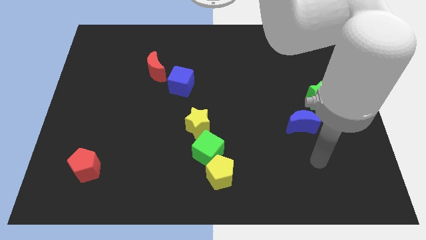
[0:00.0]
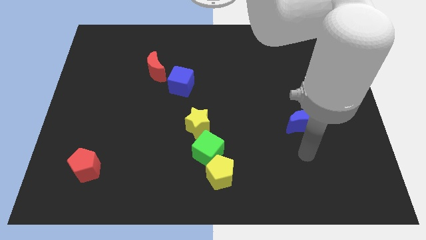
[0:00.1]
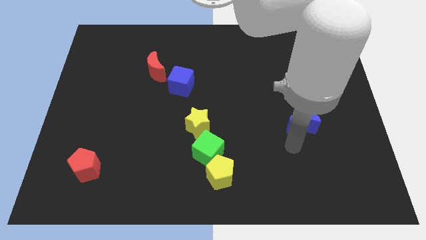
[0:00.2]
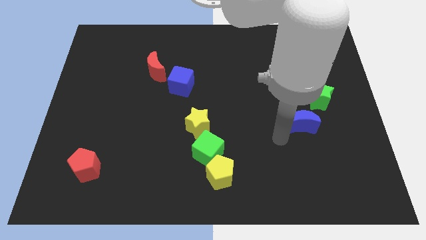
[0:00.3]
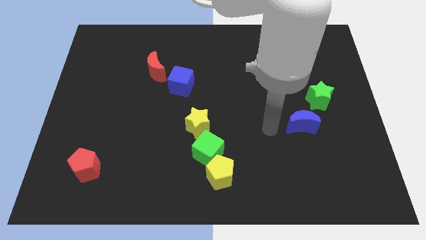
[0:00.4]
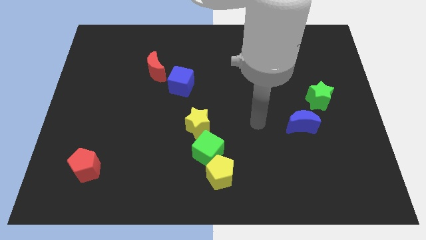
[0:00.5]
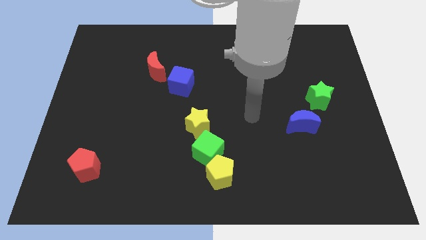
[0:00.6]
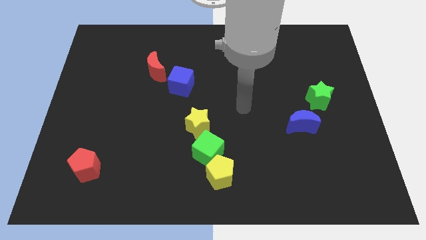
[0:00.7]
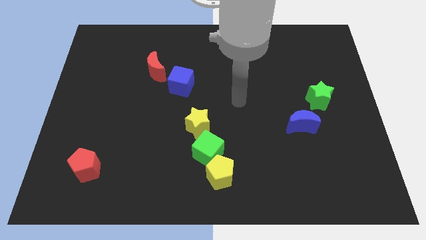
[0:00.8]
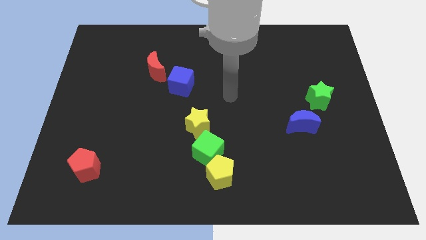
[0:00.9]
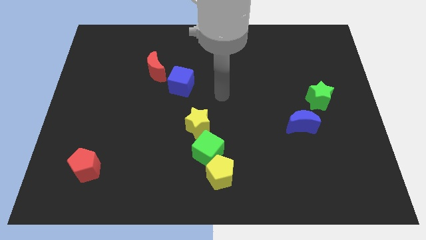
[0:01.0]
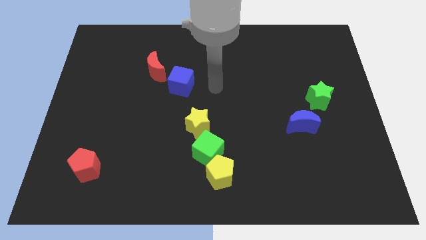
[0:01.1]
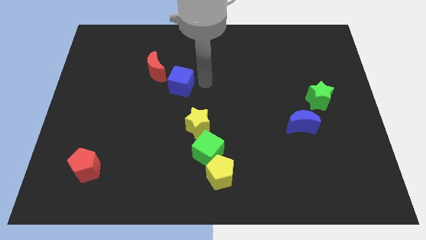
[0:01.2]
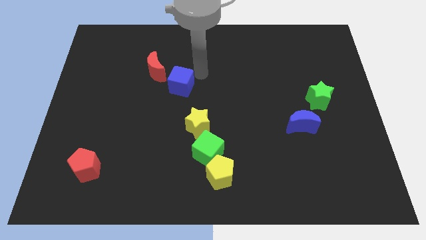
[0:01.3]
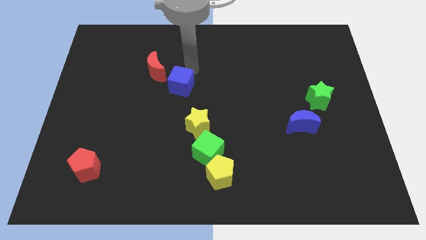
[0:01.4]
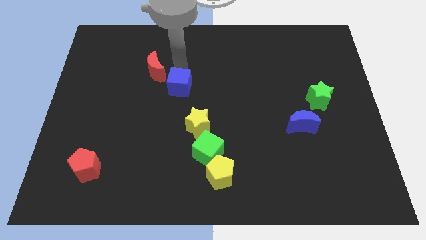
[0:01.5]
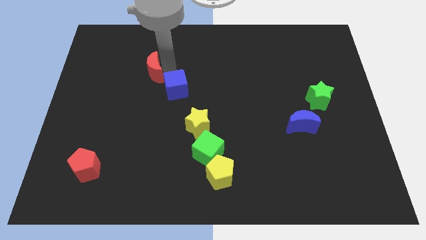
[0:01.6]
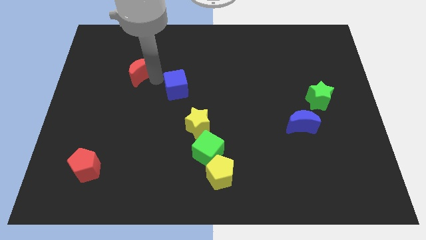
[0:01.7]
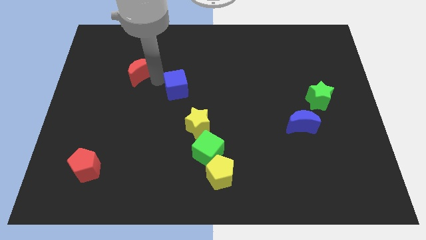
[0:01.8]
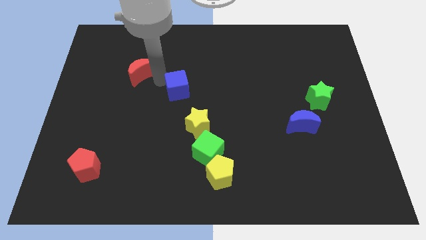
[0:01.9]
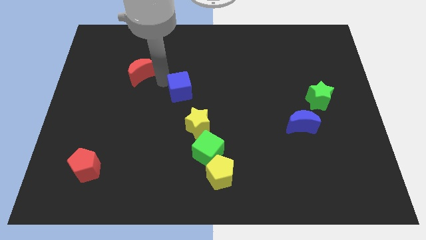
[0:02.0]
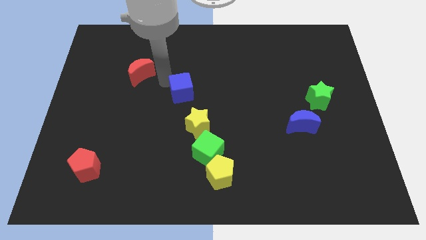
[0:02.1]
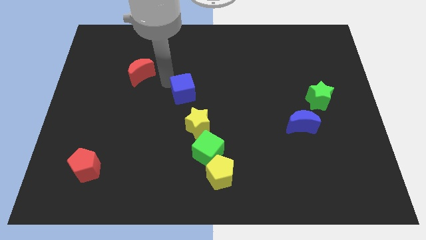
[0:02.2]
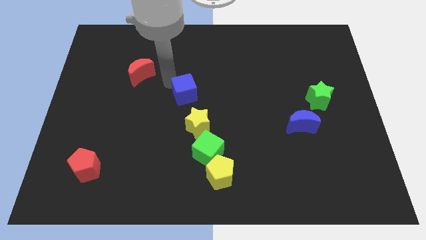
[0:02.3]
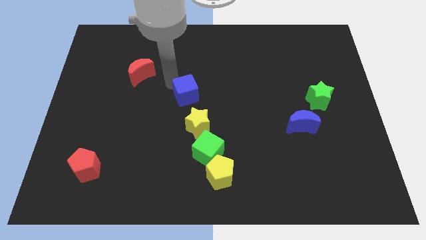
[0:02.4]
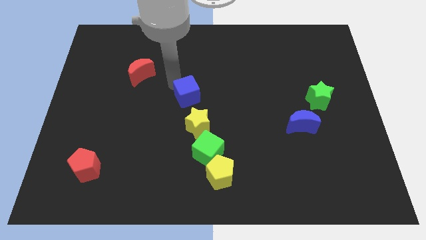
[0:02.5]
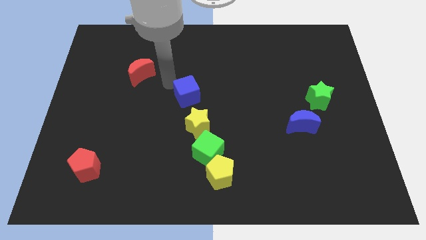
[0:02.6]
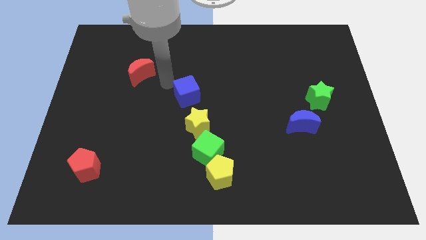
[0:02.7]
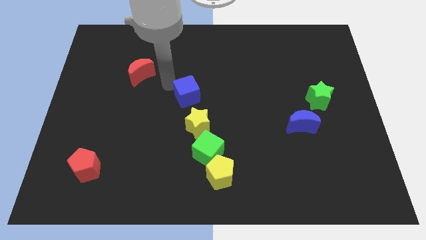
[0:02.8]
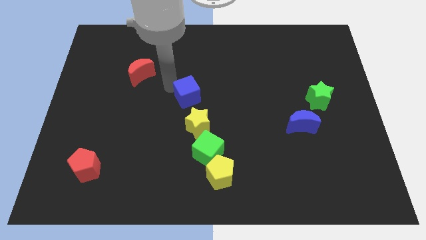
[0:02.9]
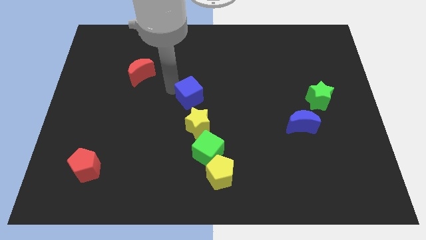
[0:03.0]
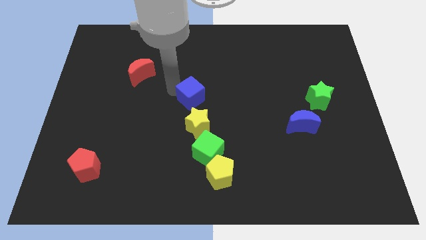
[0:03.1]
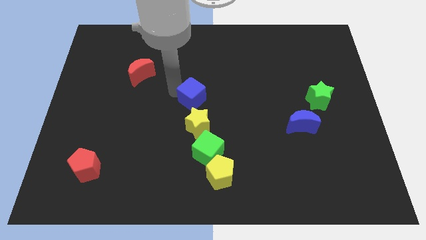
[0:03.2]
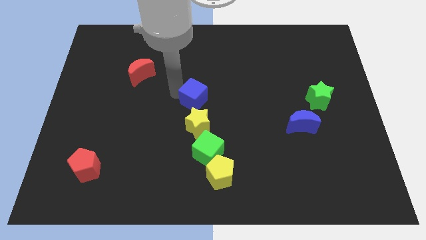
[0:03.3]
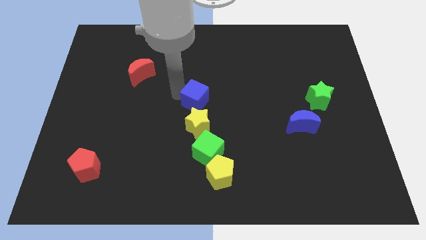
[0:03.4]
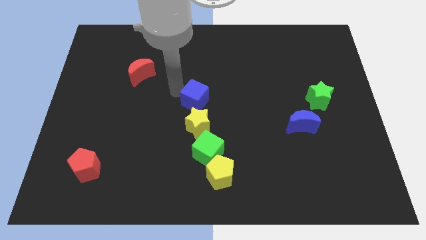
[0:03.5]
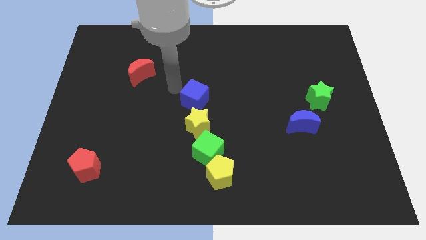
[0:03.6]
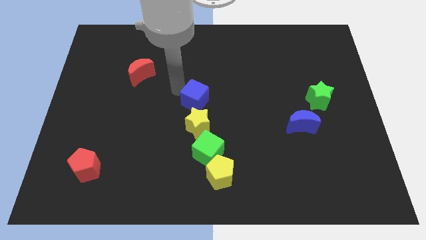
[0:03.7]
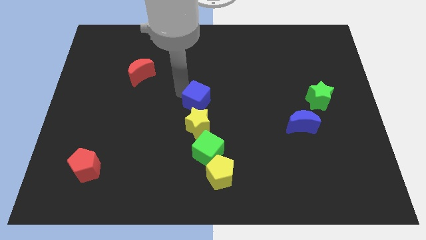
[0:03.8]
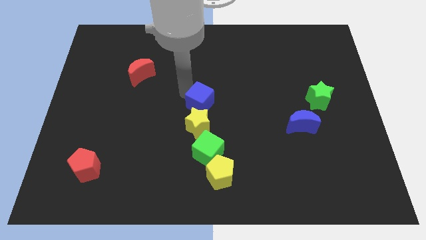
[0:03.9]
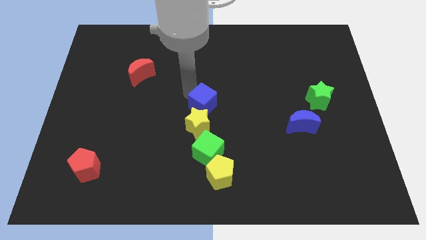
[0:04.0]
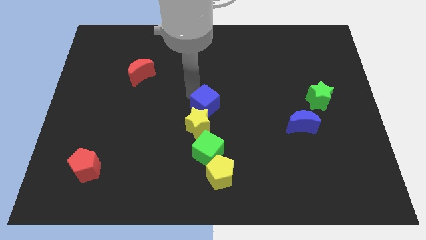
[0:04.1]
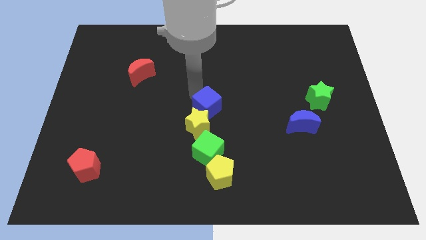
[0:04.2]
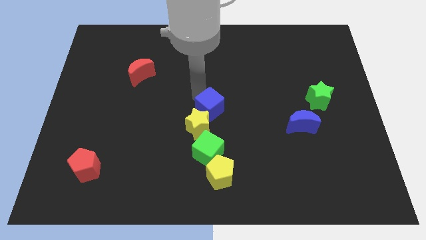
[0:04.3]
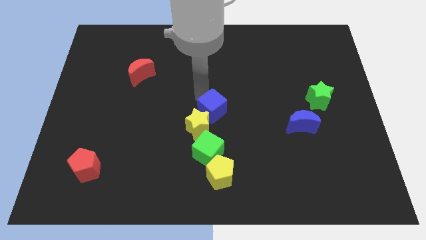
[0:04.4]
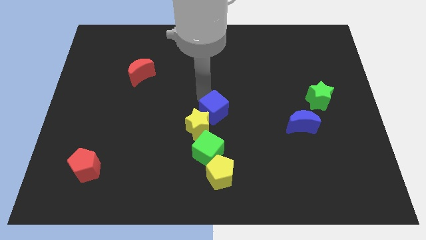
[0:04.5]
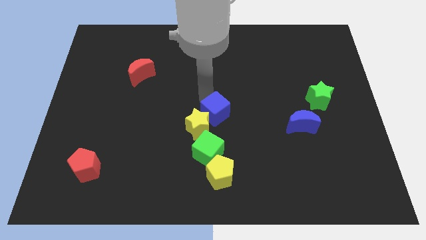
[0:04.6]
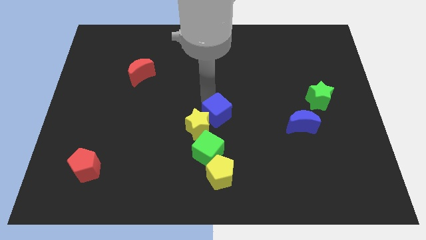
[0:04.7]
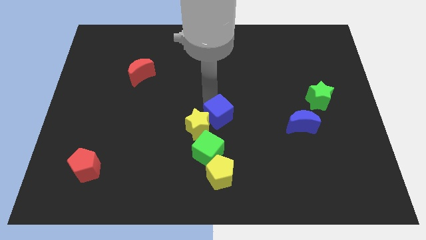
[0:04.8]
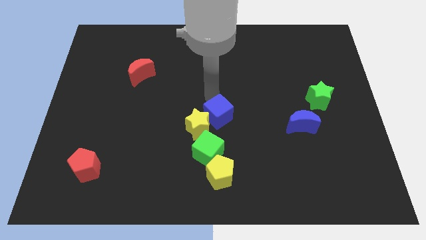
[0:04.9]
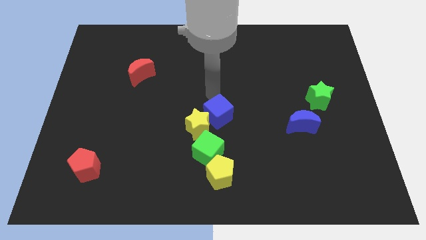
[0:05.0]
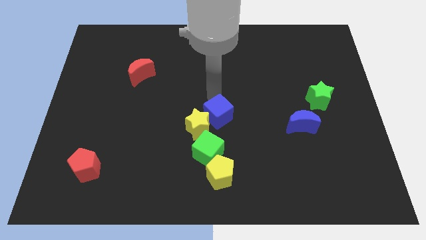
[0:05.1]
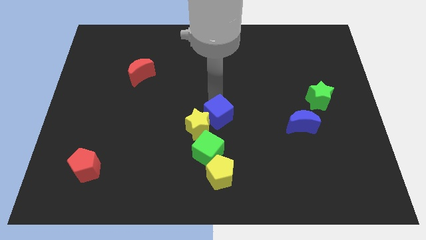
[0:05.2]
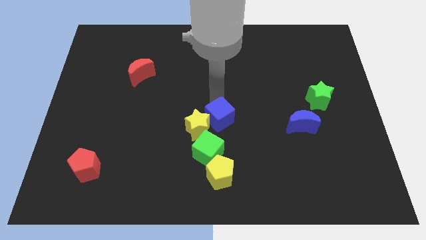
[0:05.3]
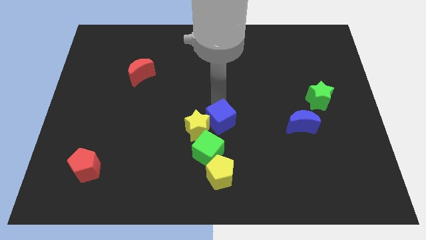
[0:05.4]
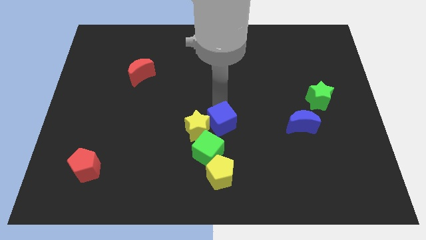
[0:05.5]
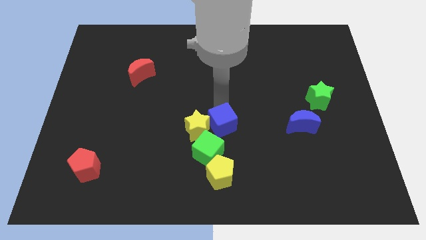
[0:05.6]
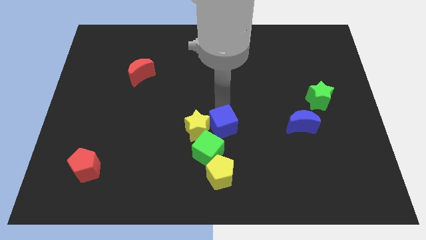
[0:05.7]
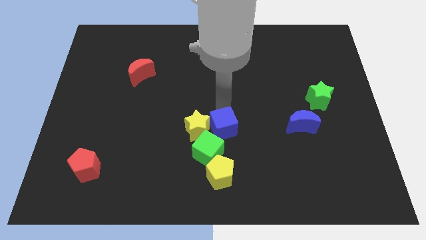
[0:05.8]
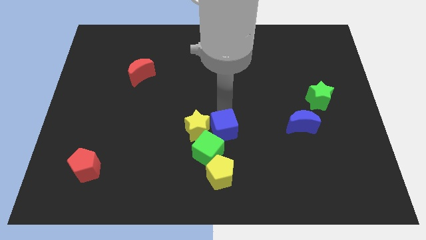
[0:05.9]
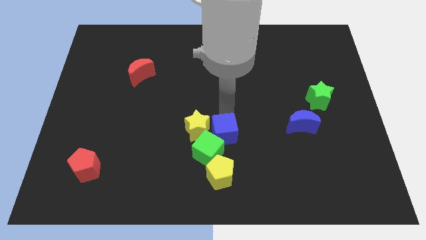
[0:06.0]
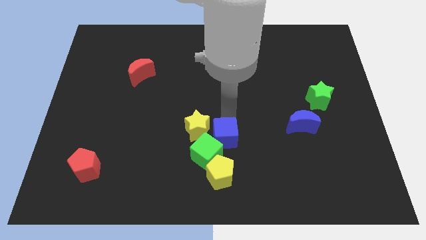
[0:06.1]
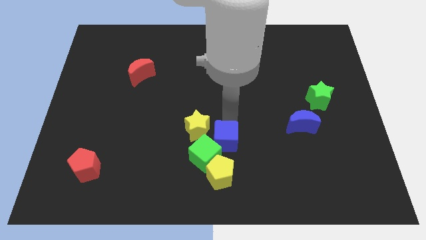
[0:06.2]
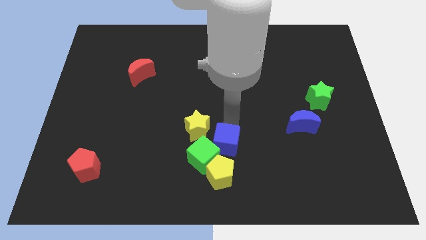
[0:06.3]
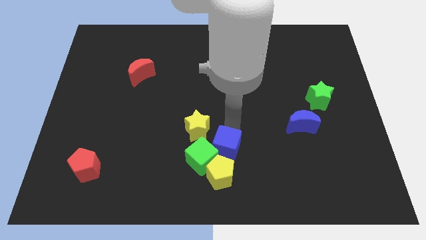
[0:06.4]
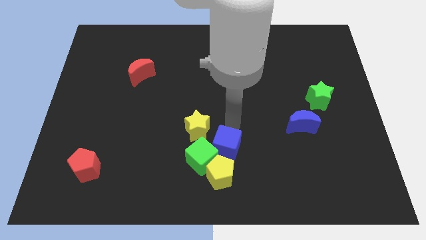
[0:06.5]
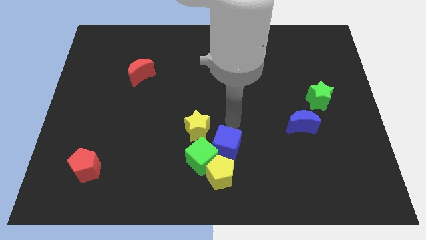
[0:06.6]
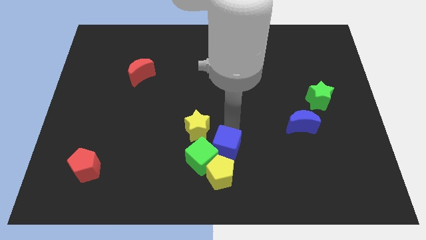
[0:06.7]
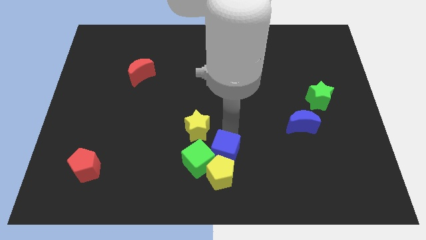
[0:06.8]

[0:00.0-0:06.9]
move the blue cube next to the yellow pentagon

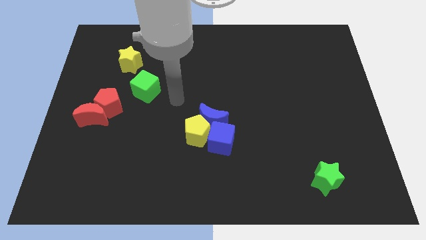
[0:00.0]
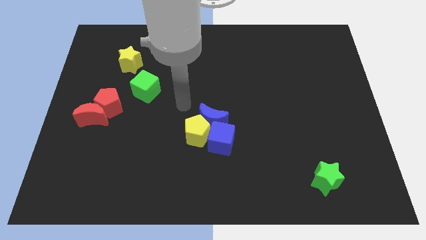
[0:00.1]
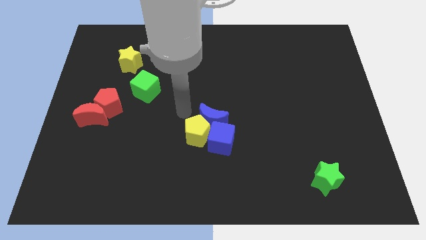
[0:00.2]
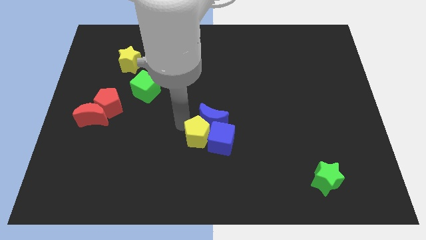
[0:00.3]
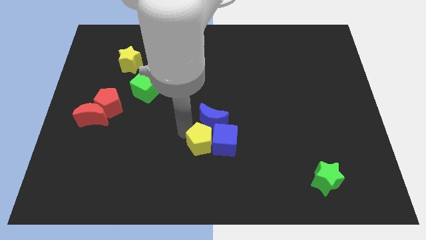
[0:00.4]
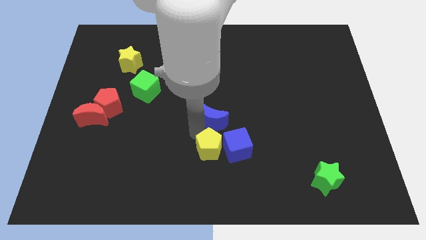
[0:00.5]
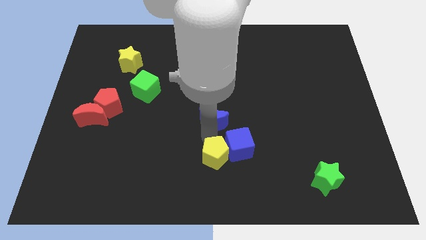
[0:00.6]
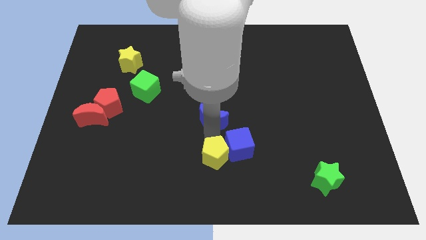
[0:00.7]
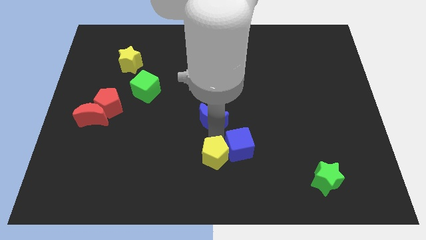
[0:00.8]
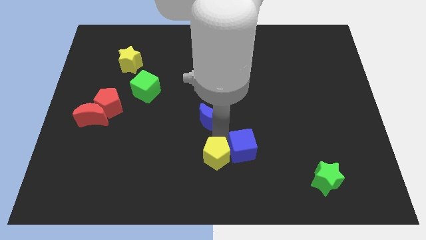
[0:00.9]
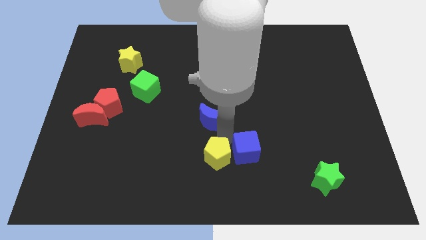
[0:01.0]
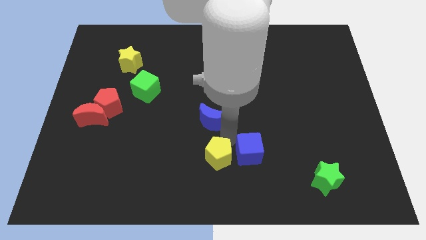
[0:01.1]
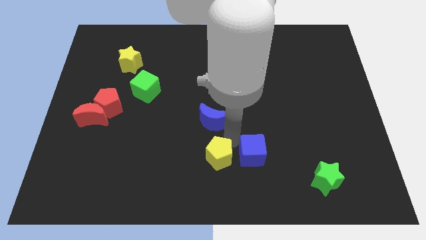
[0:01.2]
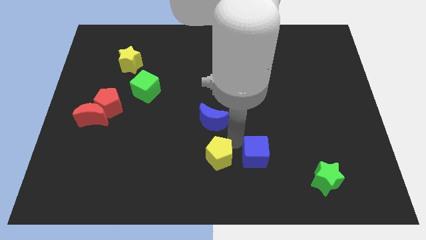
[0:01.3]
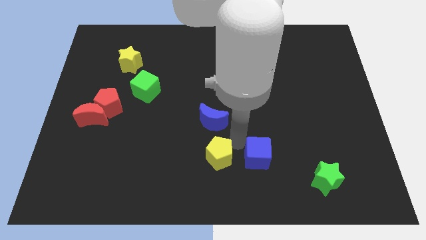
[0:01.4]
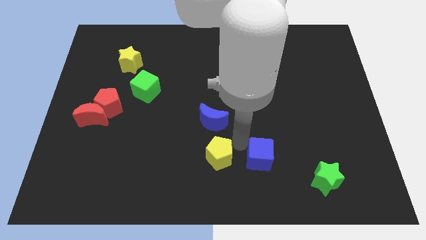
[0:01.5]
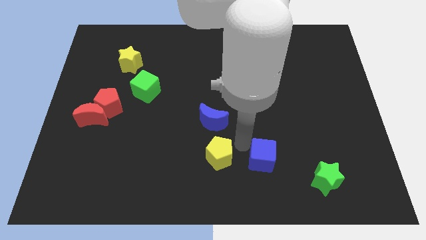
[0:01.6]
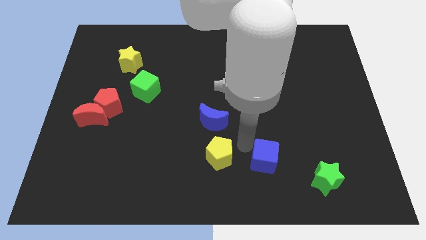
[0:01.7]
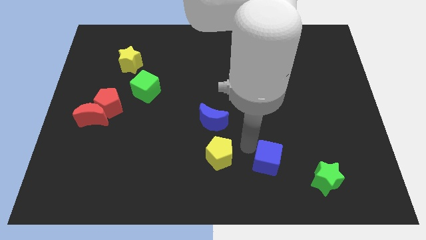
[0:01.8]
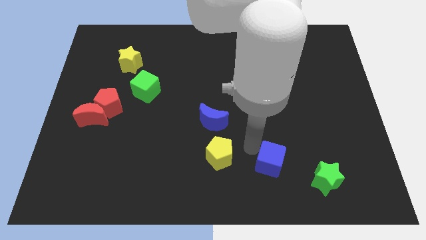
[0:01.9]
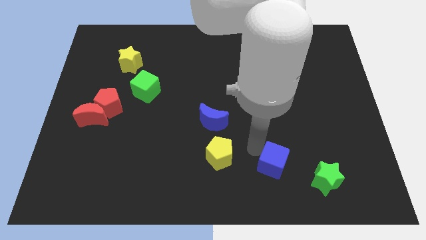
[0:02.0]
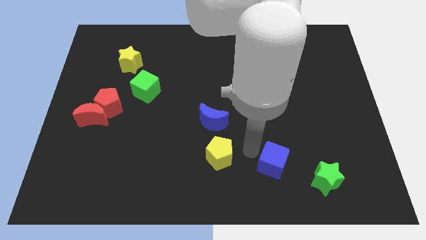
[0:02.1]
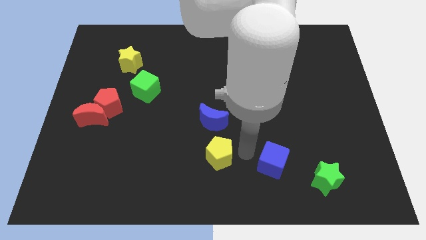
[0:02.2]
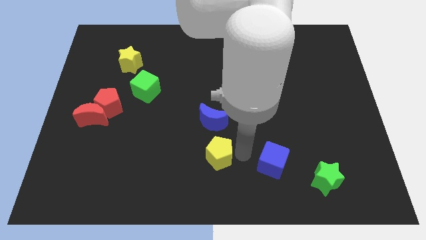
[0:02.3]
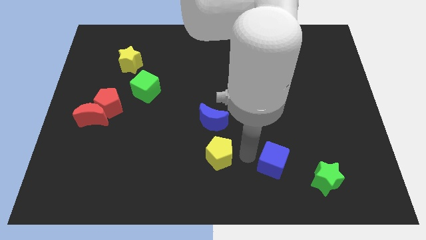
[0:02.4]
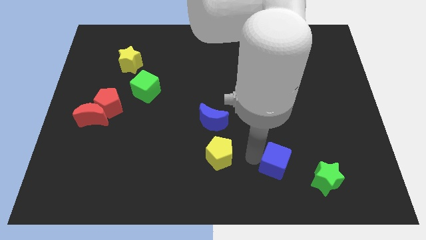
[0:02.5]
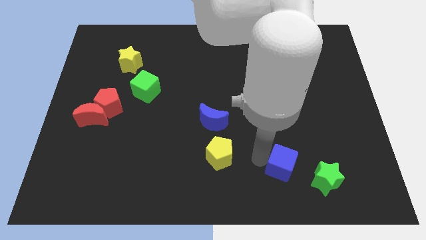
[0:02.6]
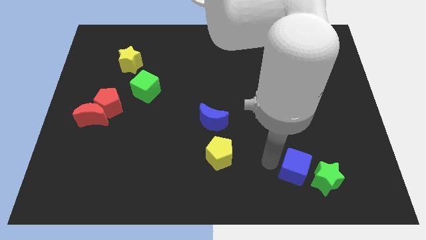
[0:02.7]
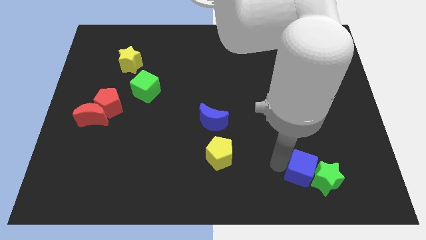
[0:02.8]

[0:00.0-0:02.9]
push the blue cube next to the green star
